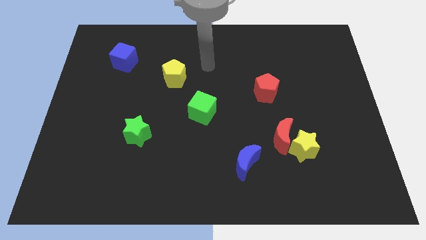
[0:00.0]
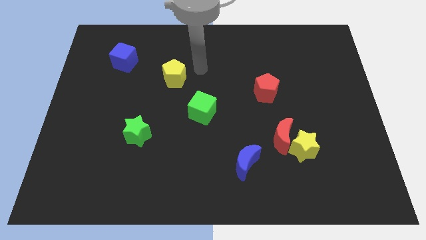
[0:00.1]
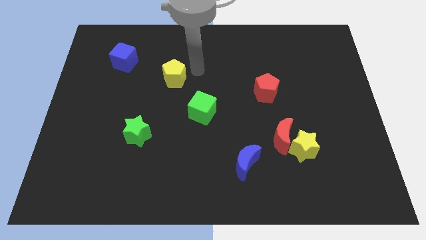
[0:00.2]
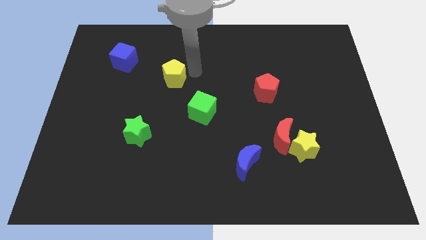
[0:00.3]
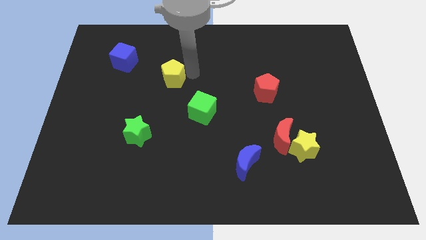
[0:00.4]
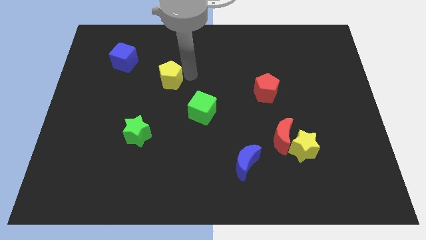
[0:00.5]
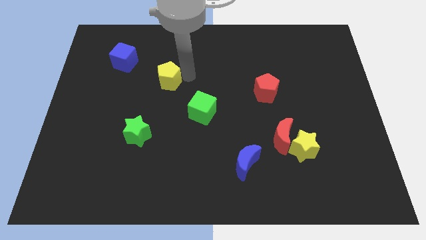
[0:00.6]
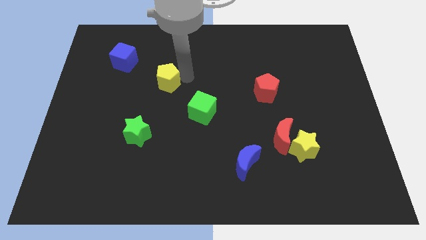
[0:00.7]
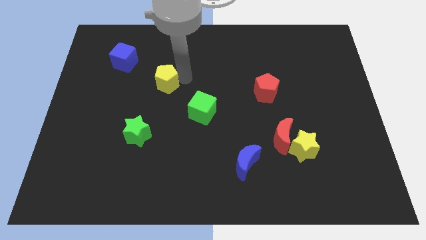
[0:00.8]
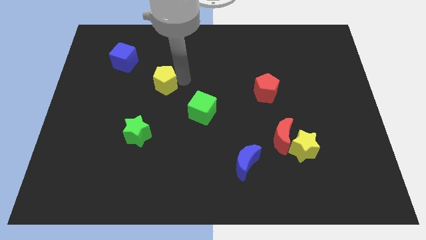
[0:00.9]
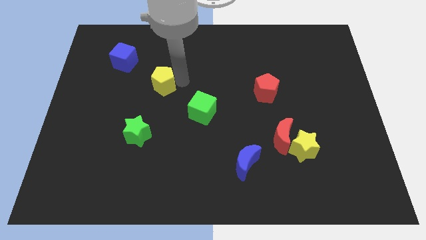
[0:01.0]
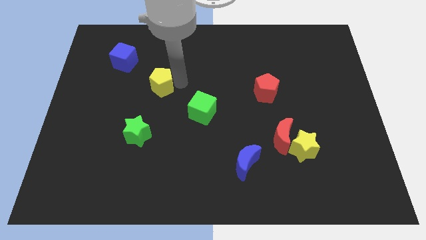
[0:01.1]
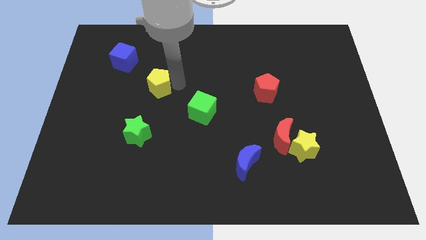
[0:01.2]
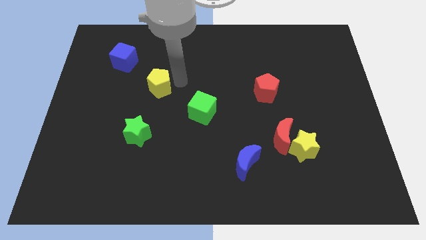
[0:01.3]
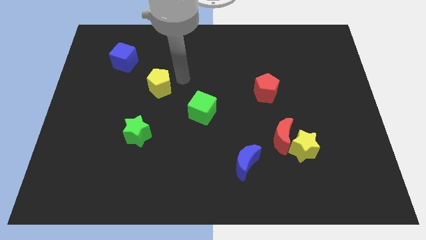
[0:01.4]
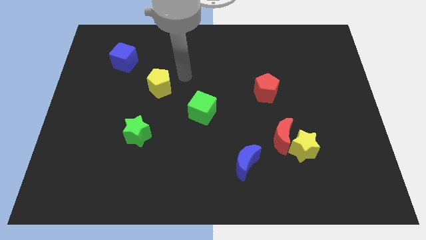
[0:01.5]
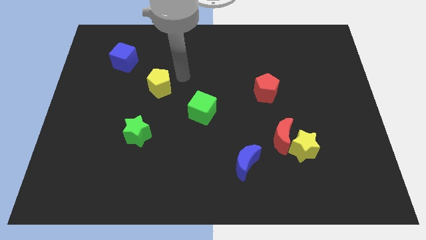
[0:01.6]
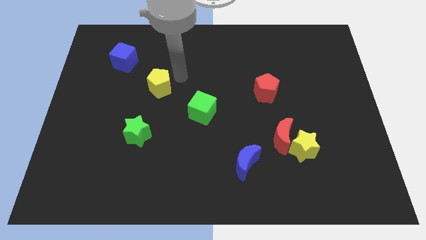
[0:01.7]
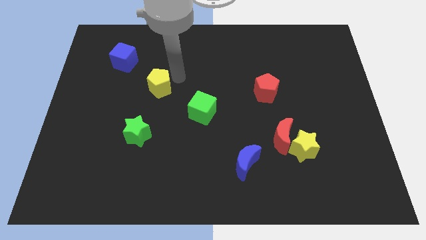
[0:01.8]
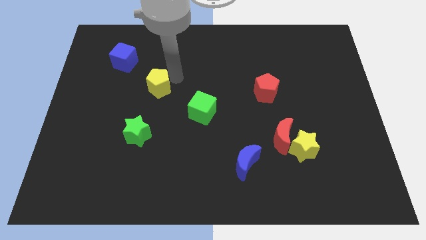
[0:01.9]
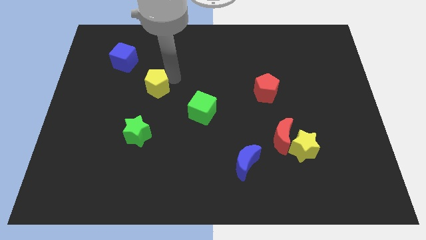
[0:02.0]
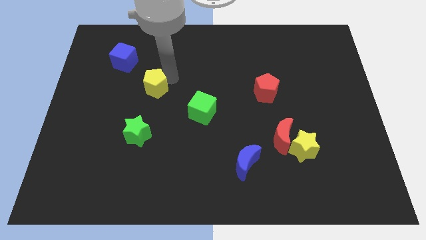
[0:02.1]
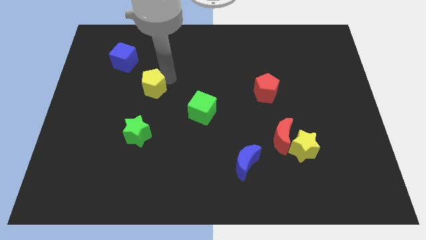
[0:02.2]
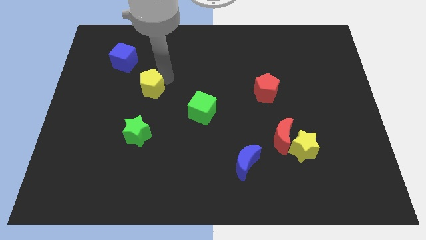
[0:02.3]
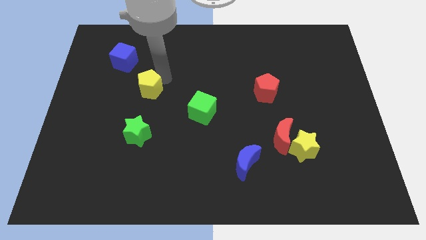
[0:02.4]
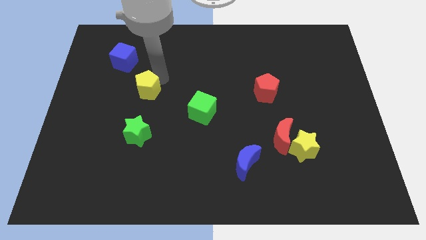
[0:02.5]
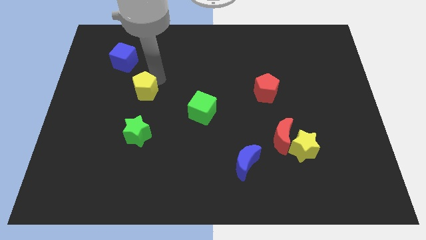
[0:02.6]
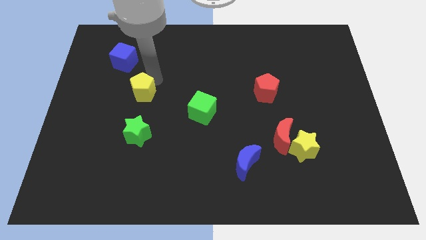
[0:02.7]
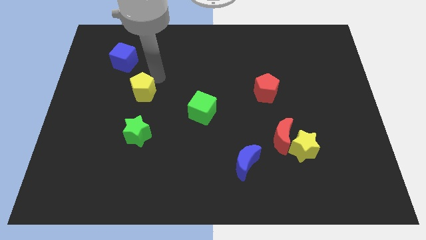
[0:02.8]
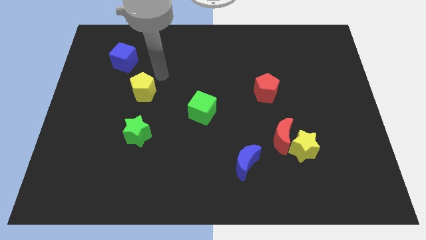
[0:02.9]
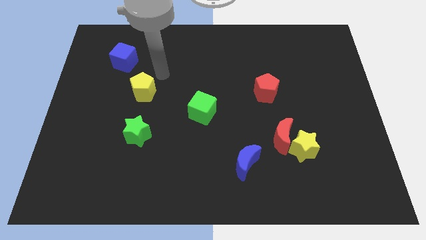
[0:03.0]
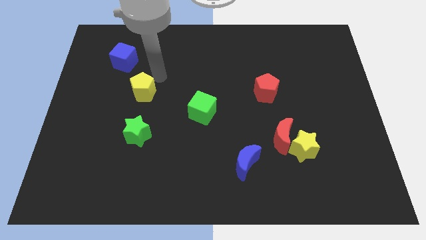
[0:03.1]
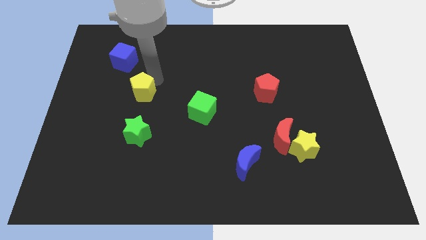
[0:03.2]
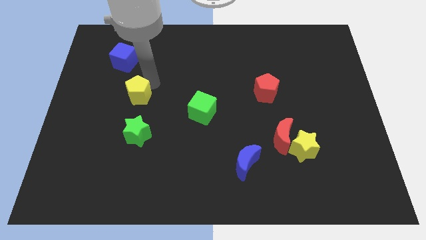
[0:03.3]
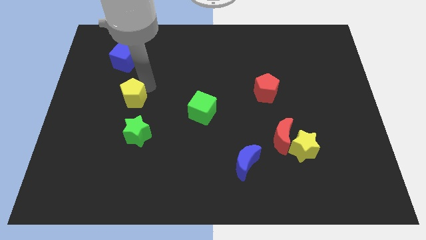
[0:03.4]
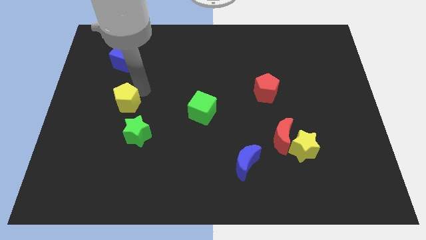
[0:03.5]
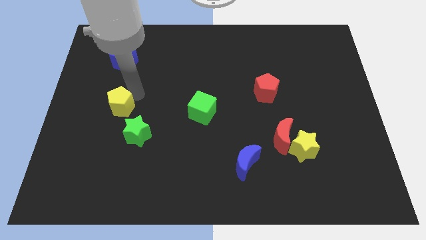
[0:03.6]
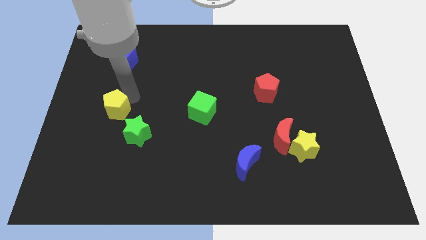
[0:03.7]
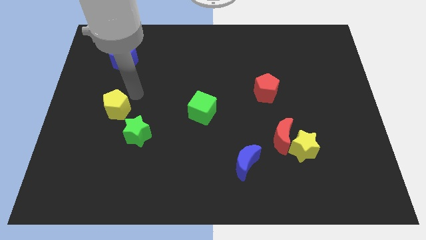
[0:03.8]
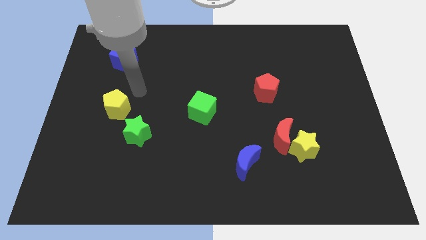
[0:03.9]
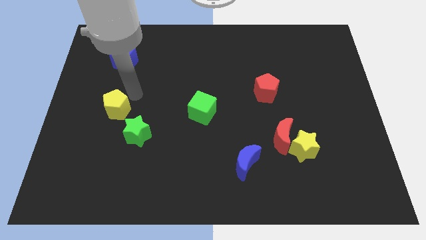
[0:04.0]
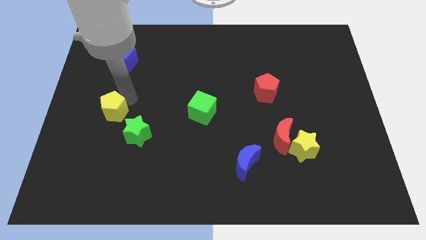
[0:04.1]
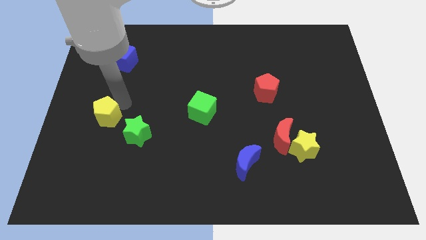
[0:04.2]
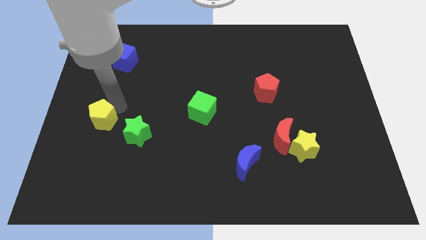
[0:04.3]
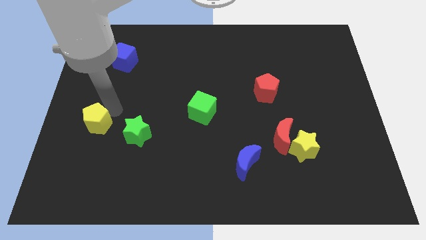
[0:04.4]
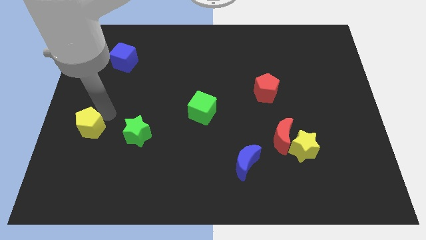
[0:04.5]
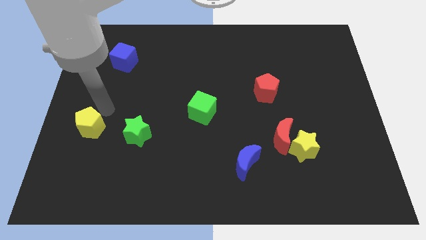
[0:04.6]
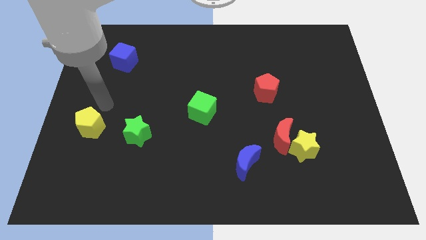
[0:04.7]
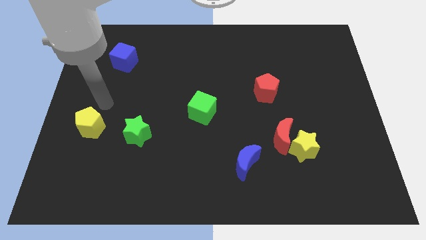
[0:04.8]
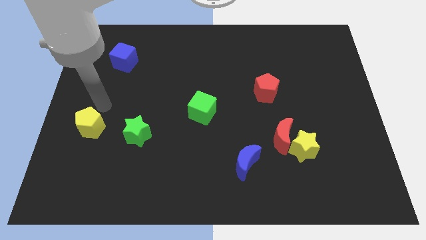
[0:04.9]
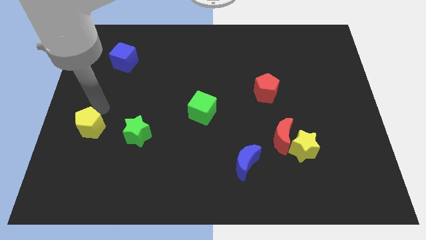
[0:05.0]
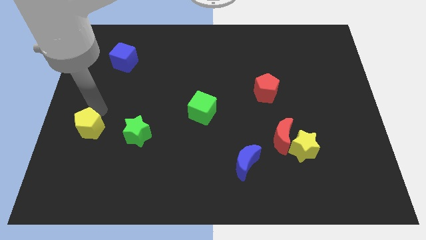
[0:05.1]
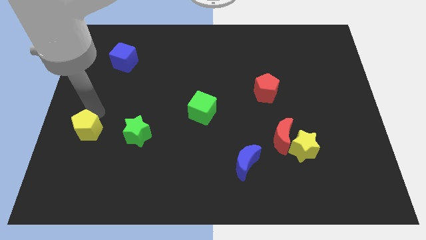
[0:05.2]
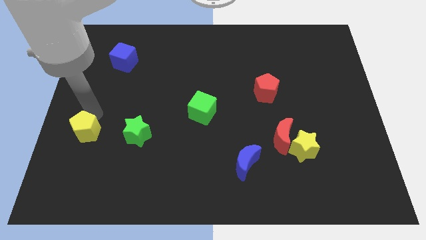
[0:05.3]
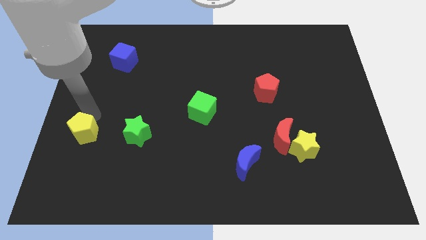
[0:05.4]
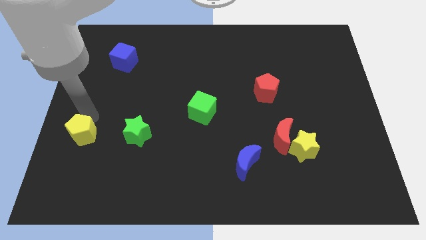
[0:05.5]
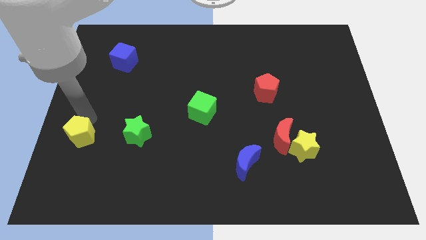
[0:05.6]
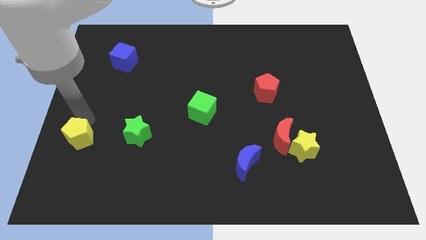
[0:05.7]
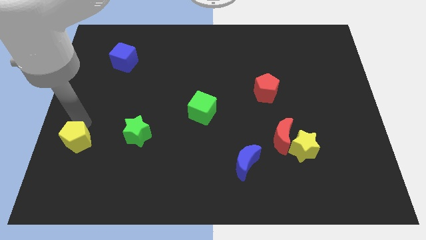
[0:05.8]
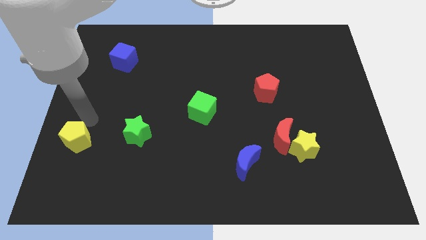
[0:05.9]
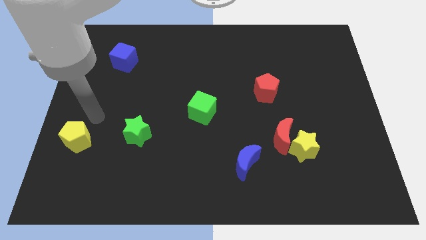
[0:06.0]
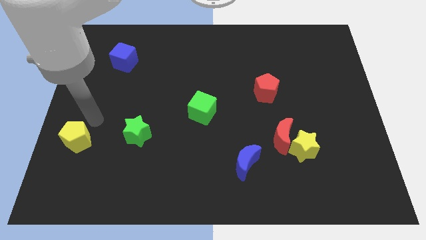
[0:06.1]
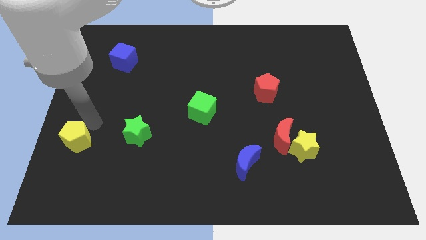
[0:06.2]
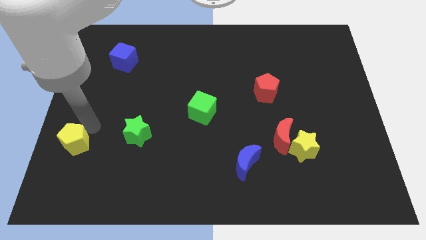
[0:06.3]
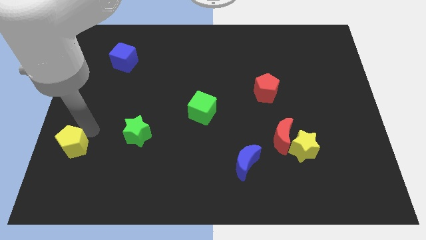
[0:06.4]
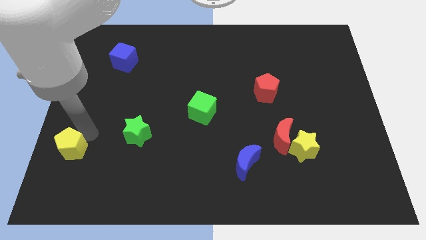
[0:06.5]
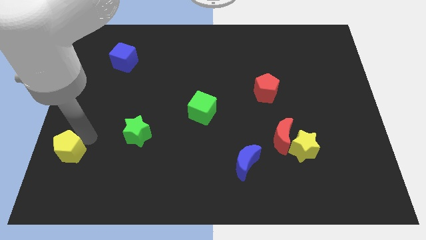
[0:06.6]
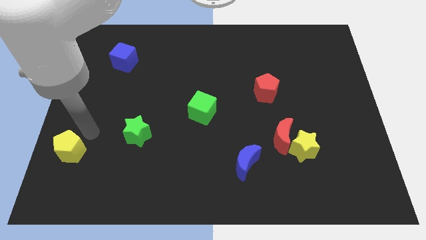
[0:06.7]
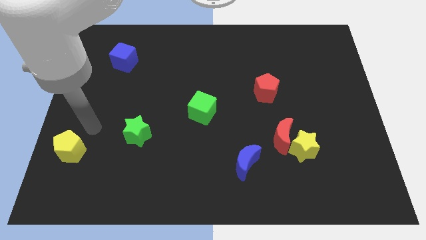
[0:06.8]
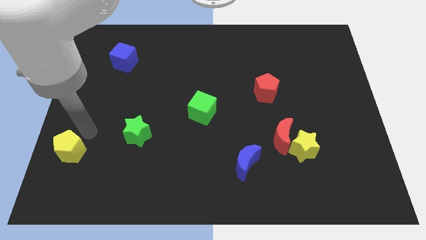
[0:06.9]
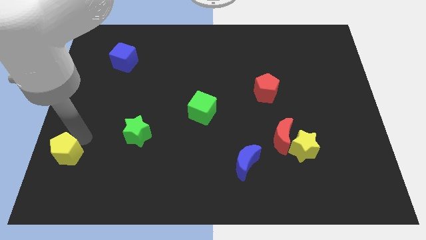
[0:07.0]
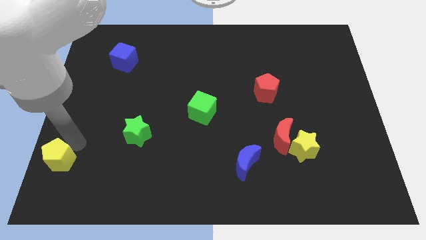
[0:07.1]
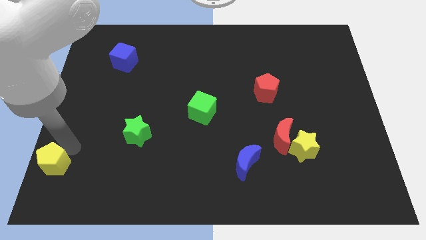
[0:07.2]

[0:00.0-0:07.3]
put the yellow pentagon to the bottom left corner

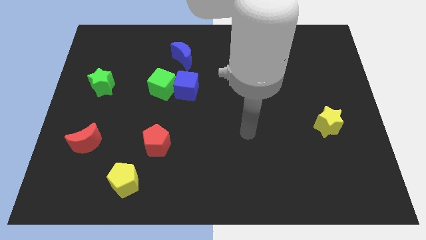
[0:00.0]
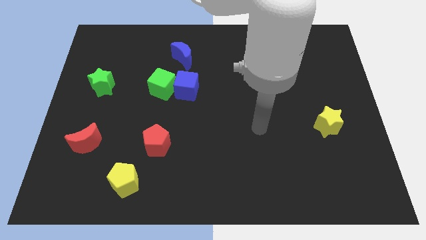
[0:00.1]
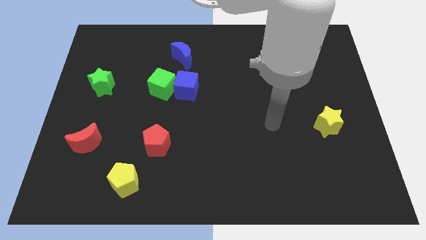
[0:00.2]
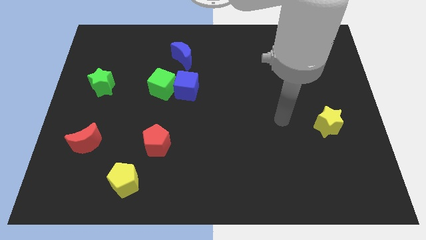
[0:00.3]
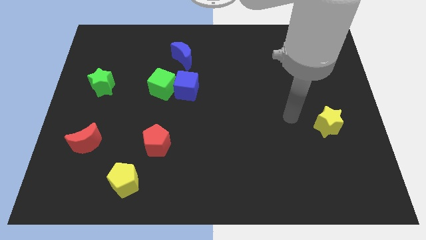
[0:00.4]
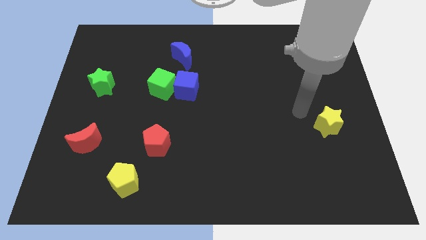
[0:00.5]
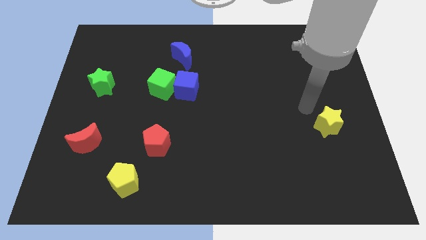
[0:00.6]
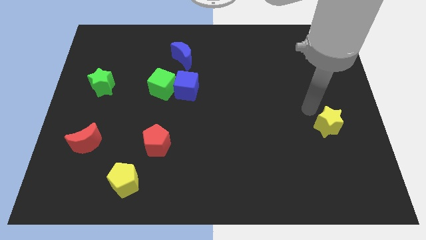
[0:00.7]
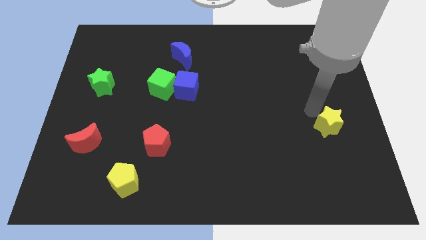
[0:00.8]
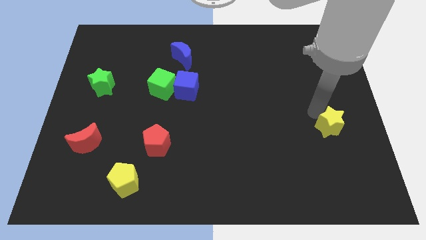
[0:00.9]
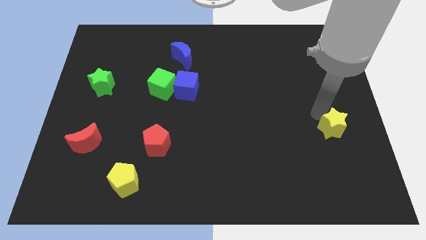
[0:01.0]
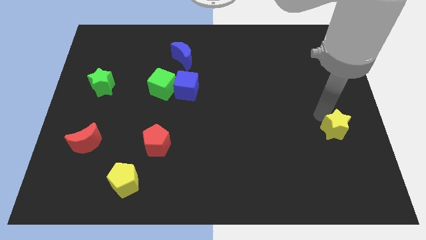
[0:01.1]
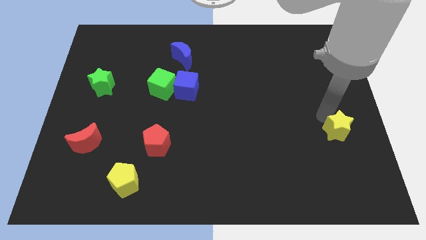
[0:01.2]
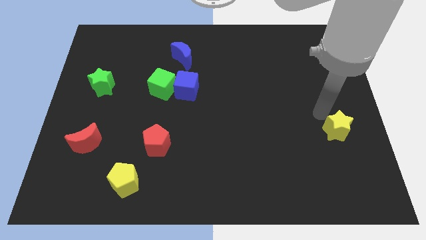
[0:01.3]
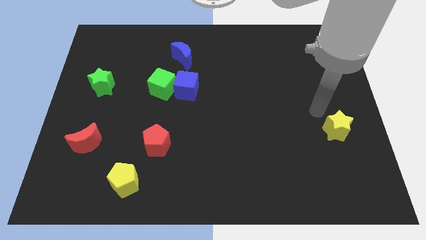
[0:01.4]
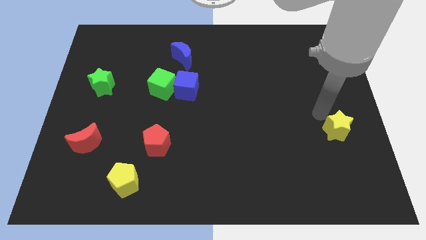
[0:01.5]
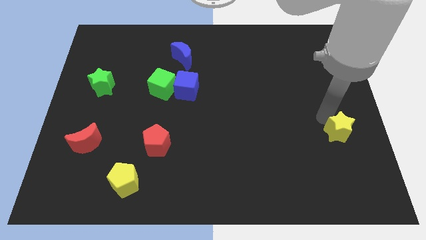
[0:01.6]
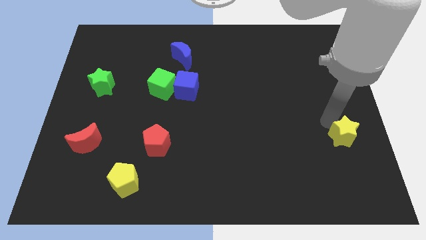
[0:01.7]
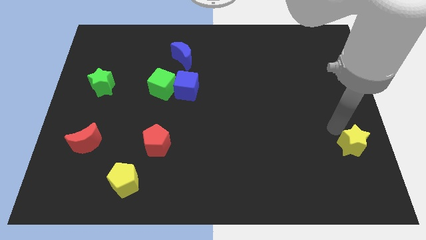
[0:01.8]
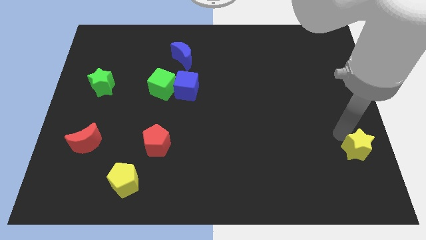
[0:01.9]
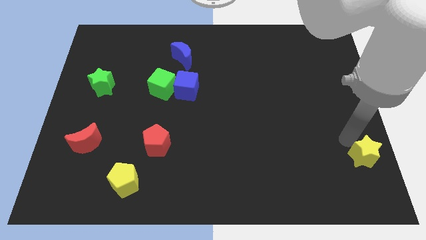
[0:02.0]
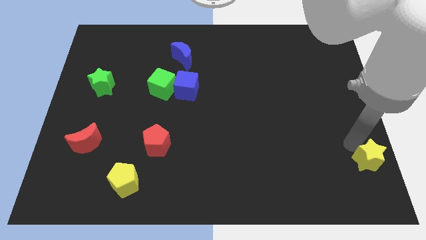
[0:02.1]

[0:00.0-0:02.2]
slide the yellow star to the bottom right corner
